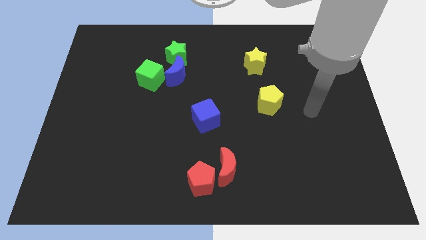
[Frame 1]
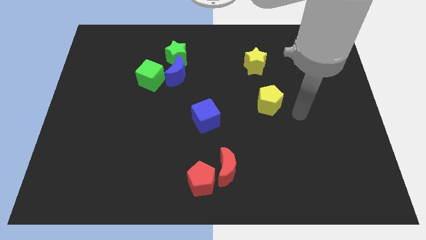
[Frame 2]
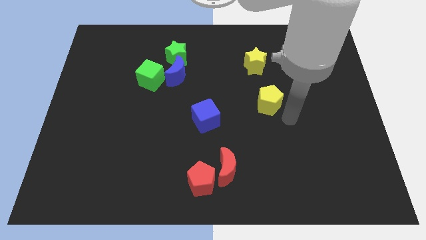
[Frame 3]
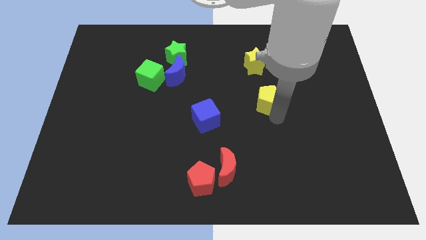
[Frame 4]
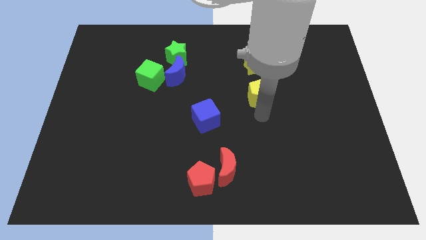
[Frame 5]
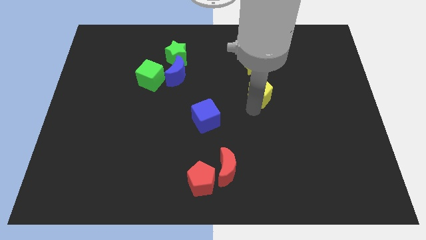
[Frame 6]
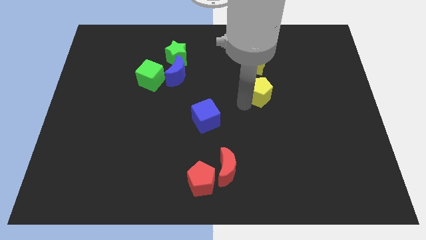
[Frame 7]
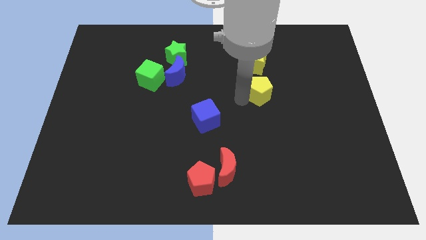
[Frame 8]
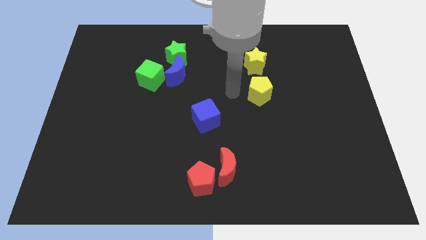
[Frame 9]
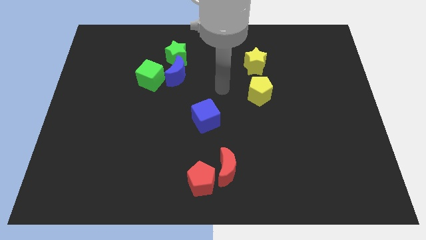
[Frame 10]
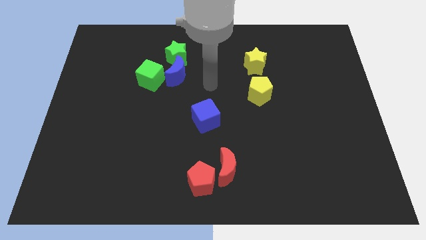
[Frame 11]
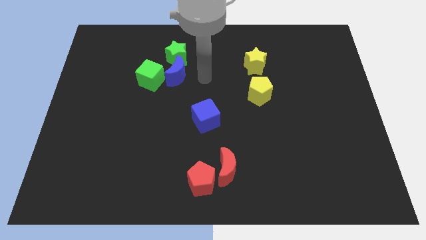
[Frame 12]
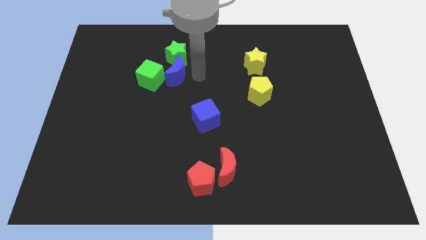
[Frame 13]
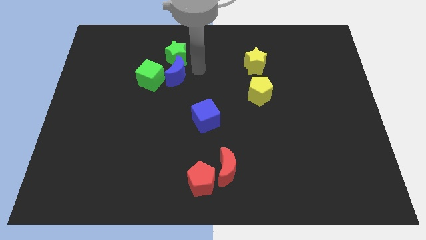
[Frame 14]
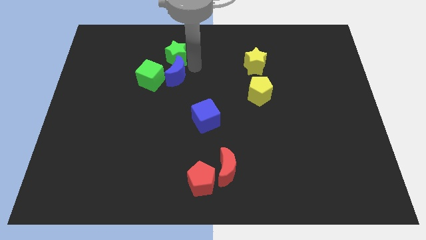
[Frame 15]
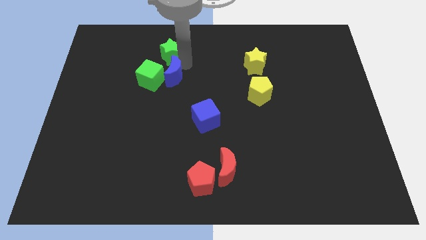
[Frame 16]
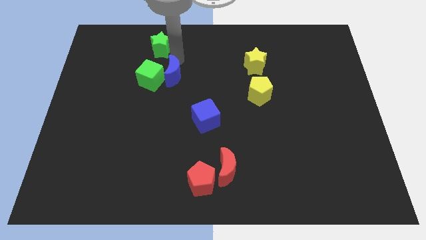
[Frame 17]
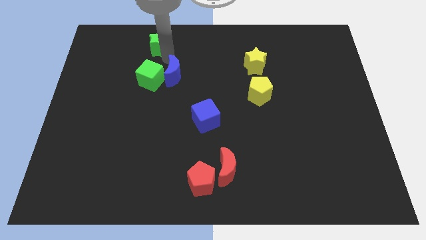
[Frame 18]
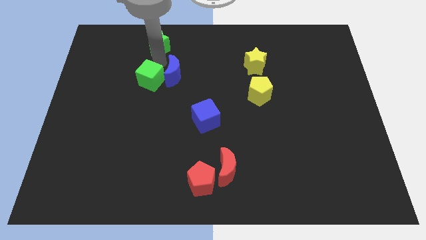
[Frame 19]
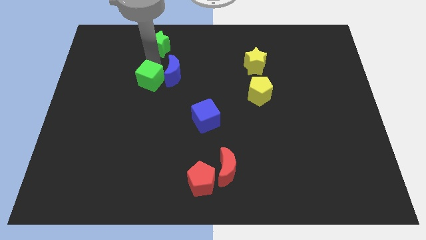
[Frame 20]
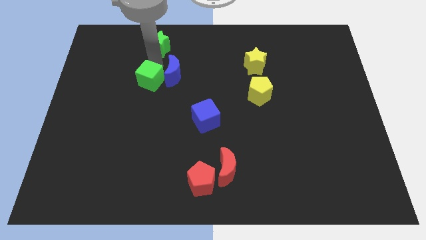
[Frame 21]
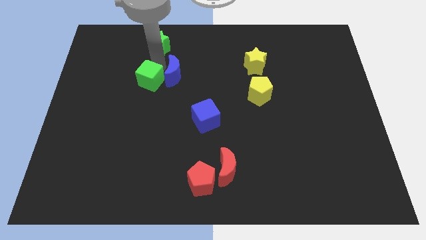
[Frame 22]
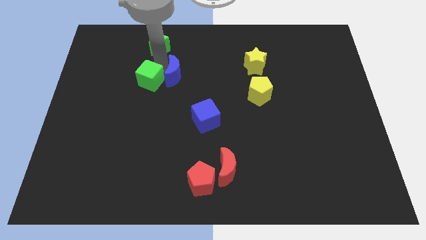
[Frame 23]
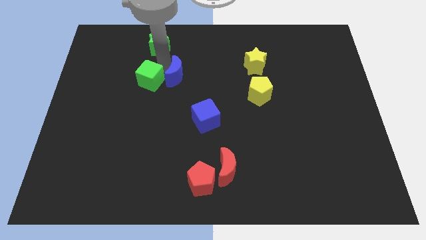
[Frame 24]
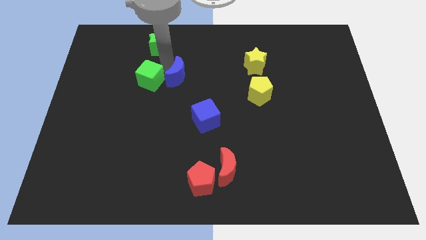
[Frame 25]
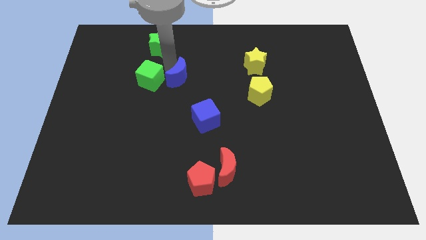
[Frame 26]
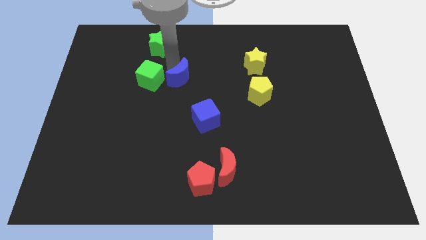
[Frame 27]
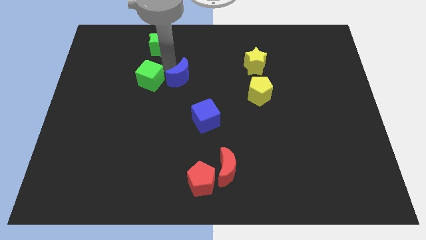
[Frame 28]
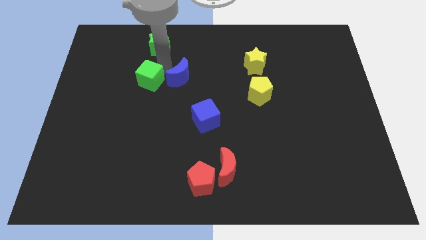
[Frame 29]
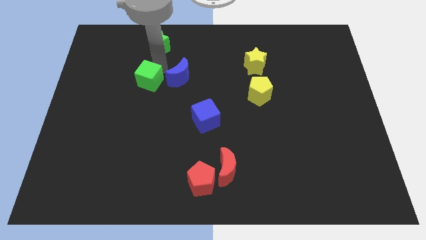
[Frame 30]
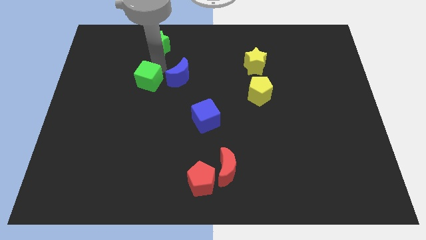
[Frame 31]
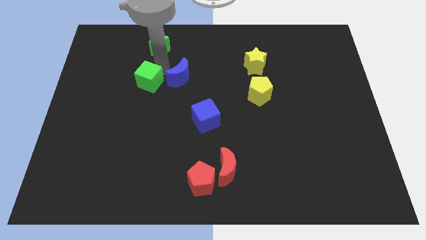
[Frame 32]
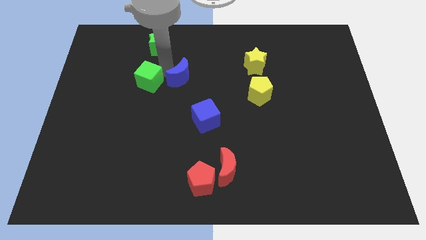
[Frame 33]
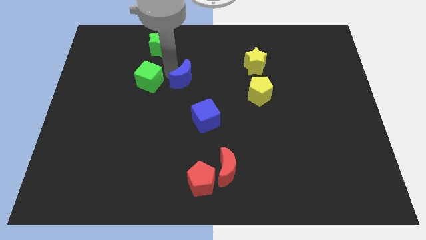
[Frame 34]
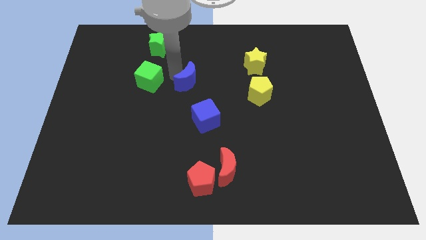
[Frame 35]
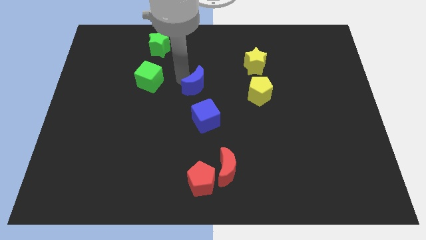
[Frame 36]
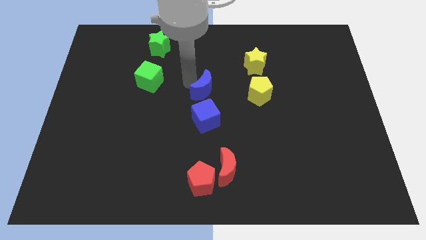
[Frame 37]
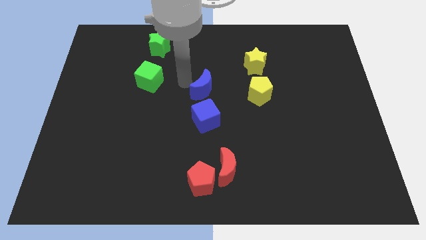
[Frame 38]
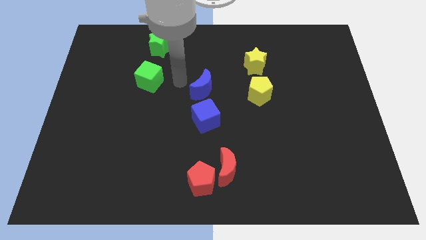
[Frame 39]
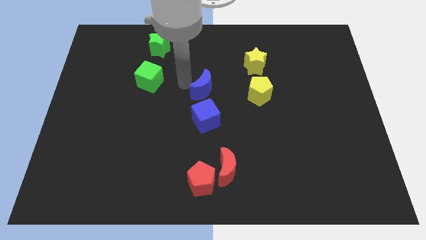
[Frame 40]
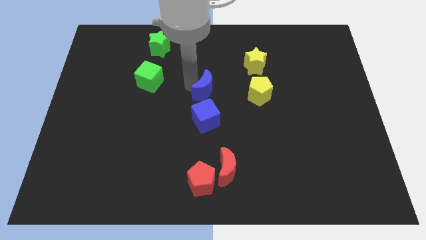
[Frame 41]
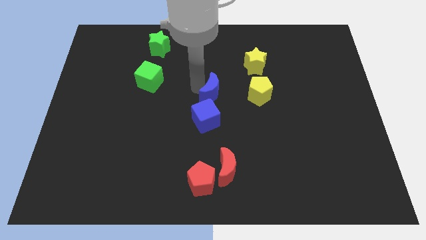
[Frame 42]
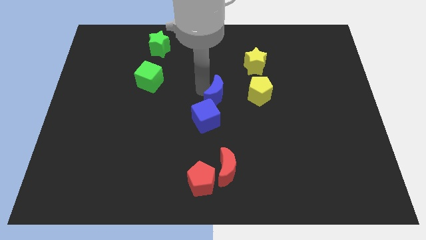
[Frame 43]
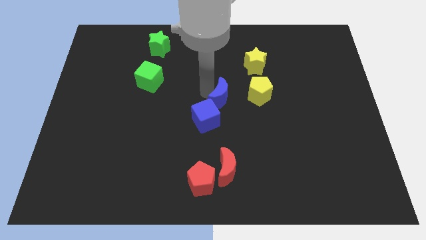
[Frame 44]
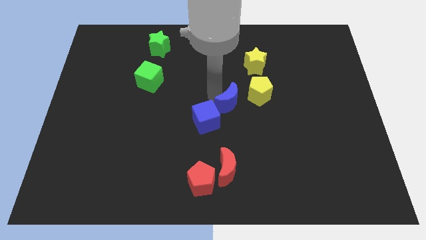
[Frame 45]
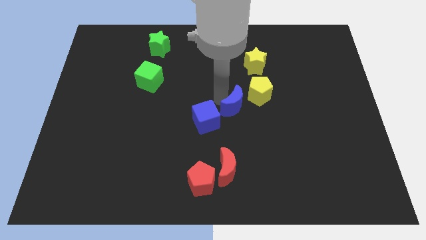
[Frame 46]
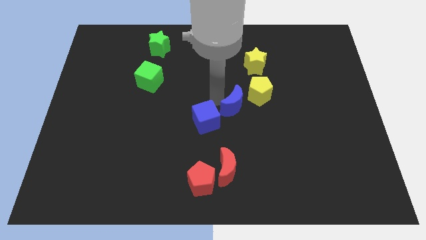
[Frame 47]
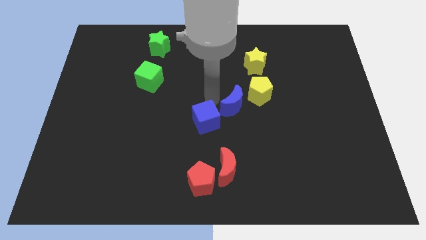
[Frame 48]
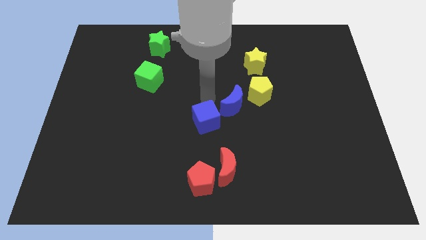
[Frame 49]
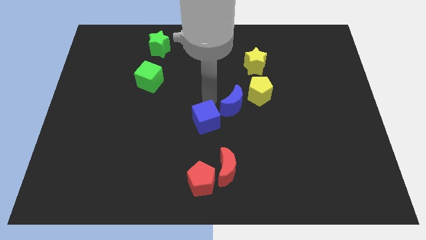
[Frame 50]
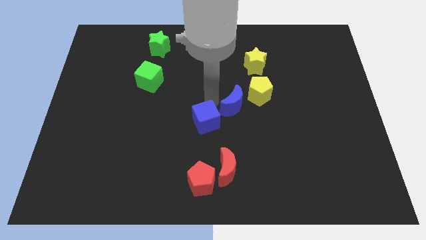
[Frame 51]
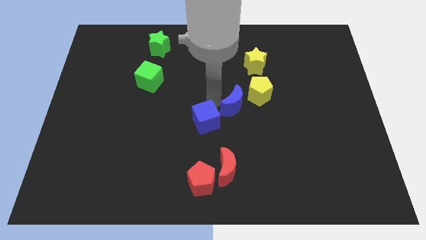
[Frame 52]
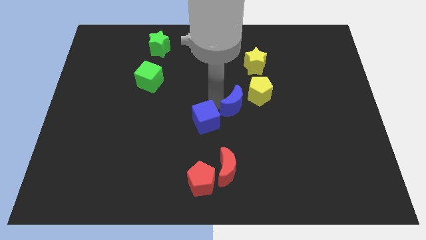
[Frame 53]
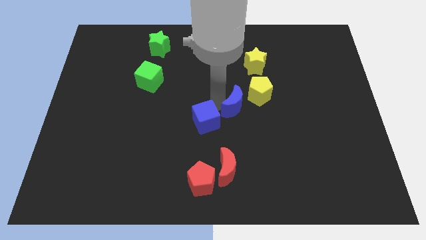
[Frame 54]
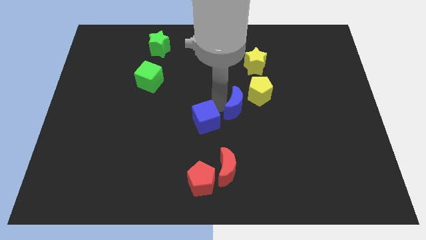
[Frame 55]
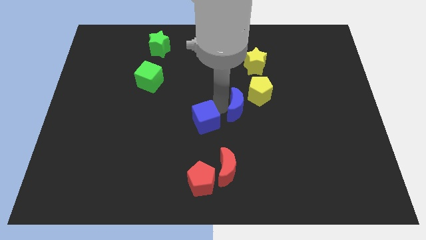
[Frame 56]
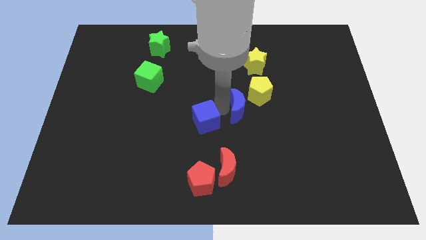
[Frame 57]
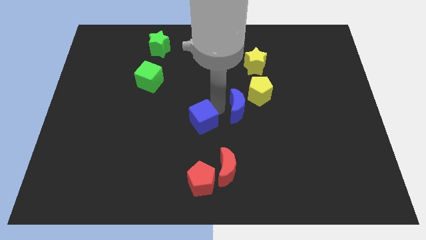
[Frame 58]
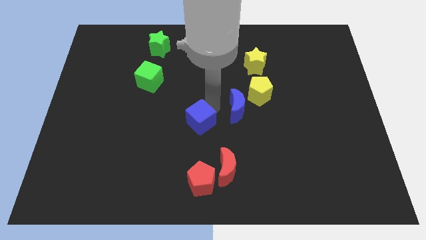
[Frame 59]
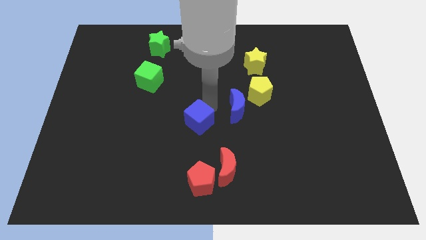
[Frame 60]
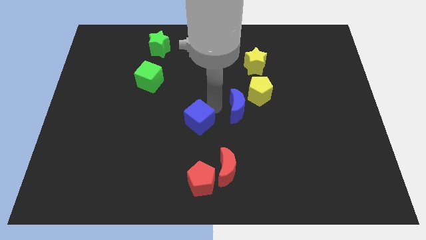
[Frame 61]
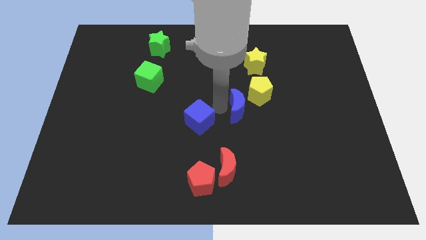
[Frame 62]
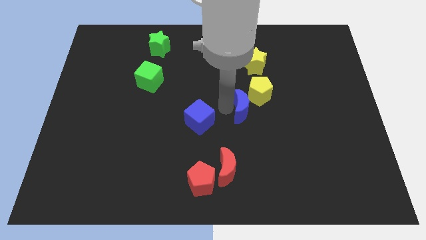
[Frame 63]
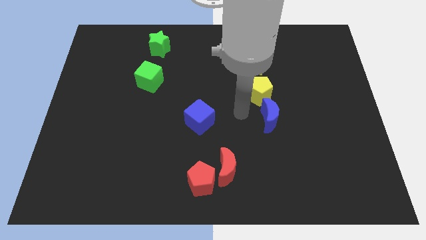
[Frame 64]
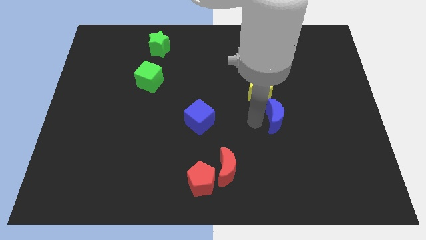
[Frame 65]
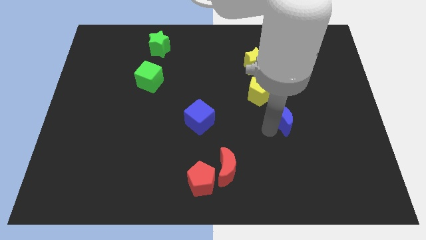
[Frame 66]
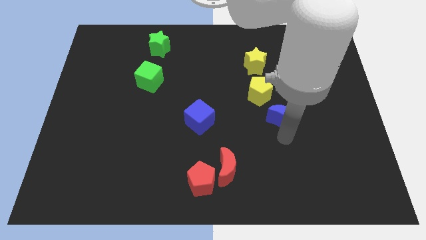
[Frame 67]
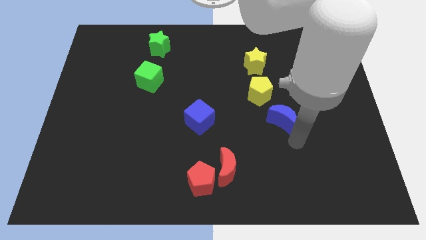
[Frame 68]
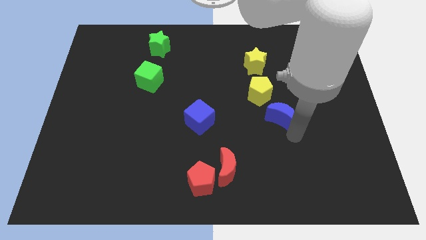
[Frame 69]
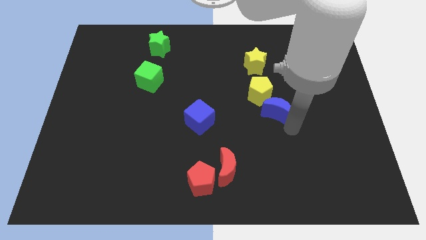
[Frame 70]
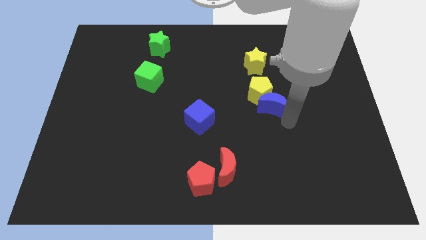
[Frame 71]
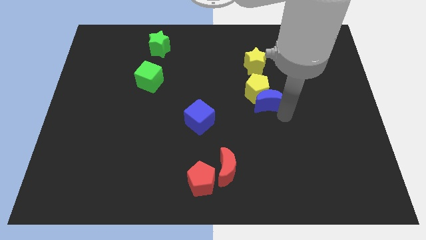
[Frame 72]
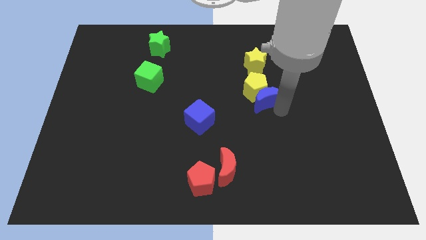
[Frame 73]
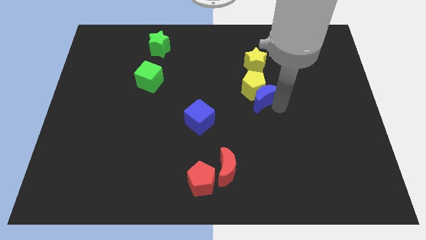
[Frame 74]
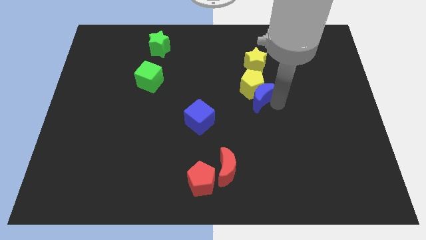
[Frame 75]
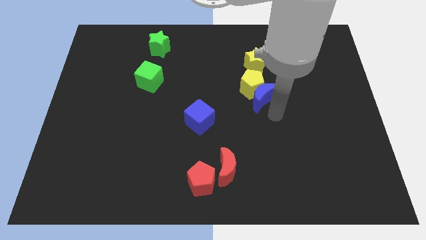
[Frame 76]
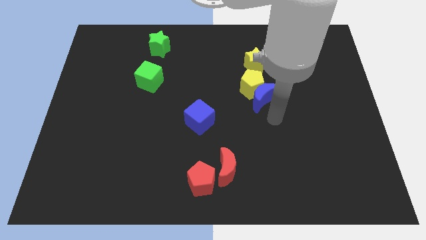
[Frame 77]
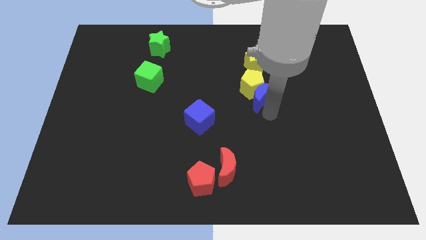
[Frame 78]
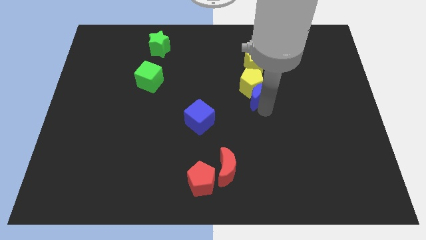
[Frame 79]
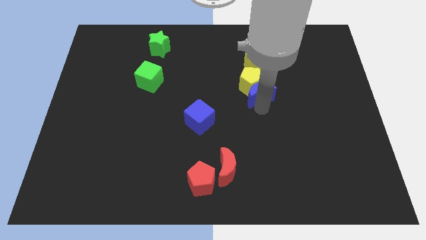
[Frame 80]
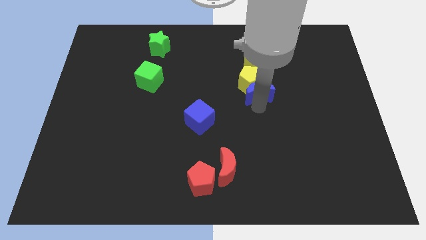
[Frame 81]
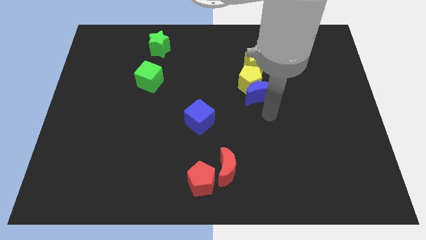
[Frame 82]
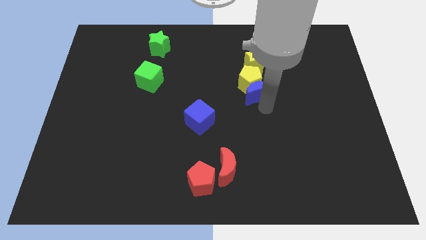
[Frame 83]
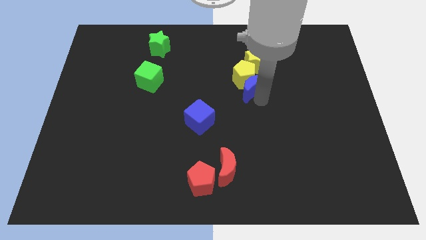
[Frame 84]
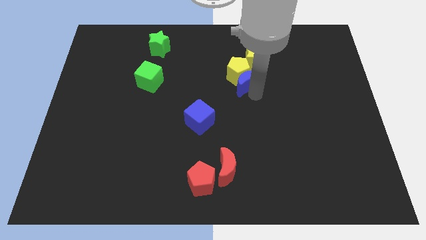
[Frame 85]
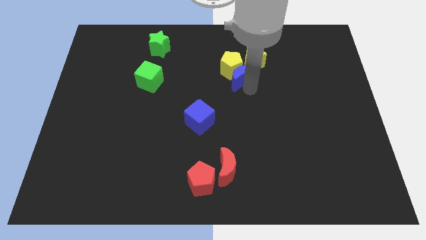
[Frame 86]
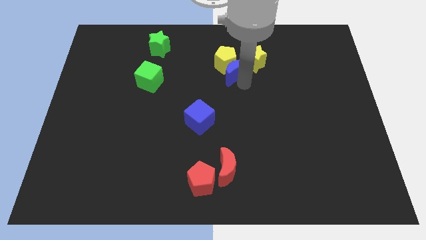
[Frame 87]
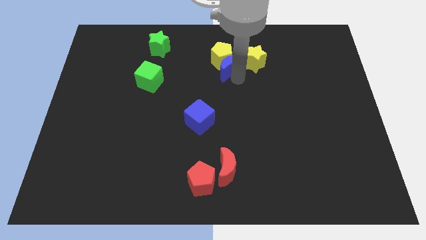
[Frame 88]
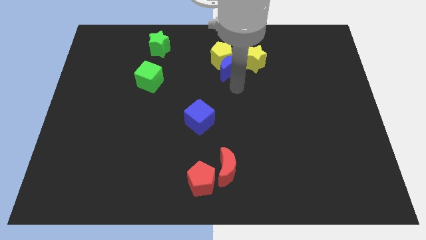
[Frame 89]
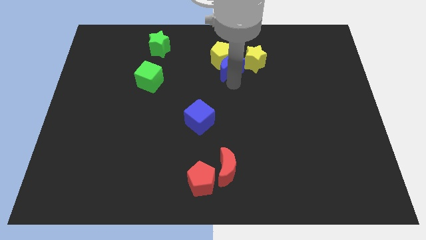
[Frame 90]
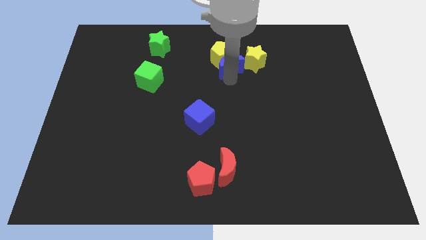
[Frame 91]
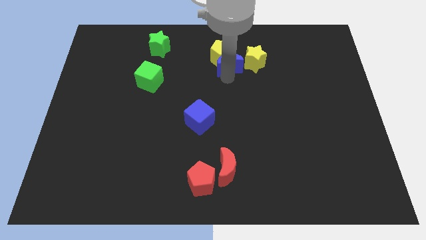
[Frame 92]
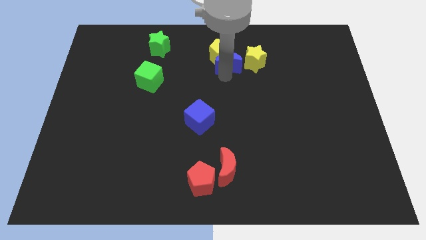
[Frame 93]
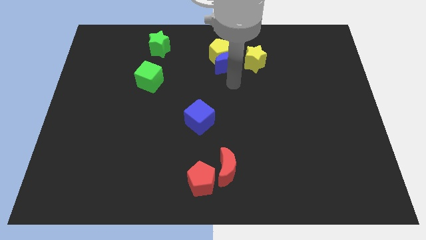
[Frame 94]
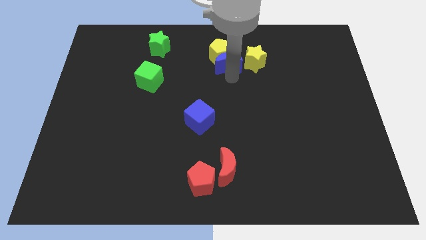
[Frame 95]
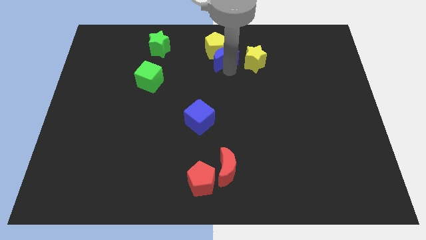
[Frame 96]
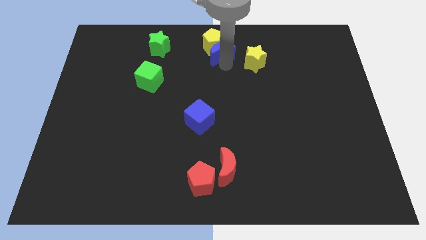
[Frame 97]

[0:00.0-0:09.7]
slide the blue moon to the top side
